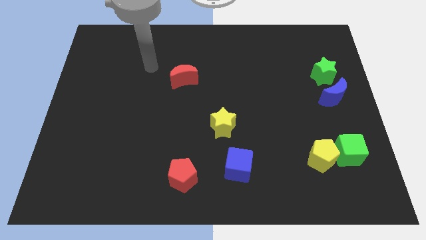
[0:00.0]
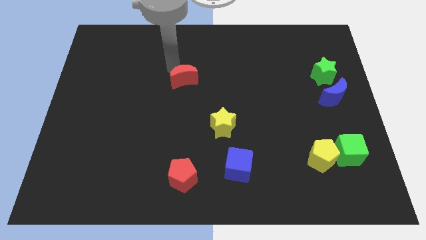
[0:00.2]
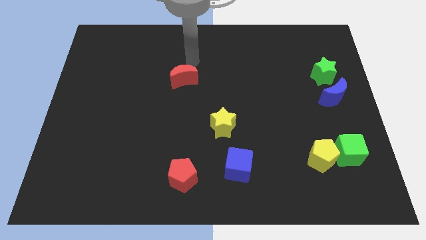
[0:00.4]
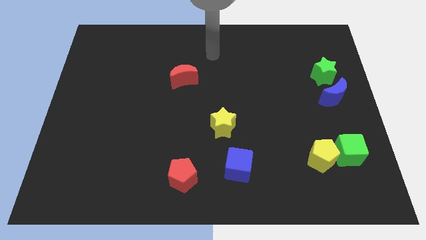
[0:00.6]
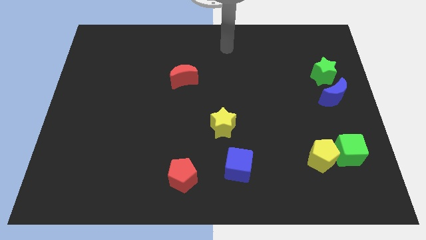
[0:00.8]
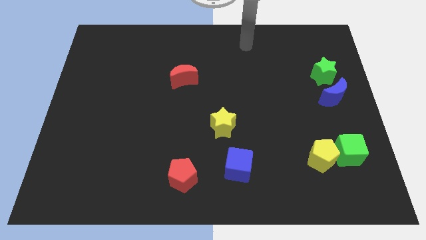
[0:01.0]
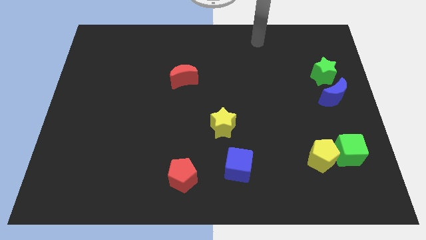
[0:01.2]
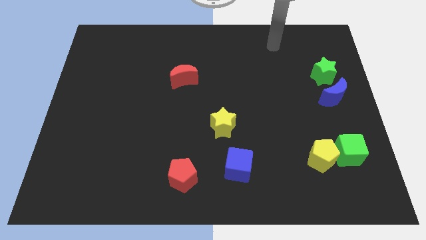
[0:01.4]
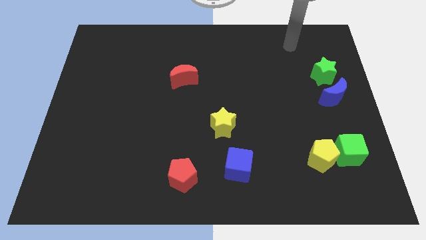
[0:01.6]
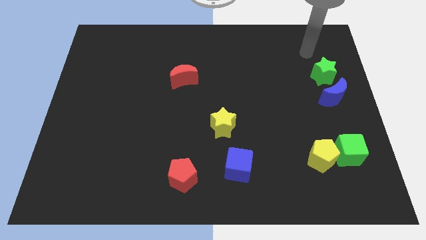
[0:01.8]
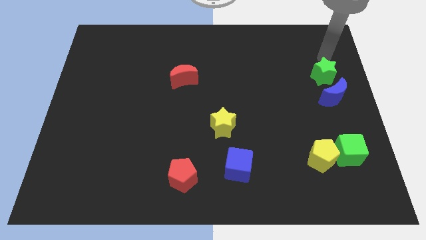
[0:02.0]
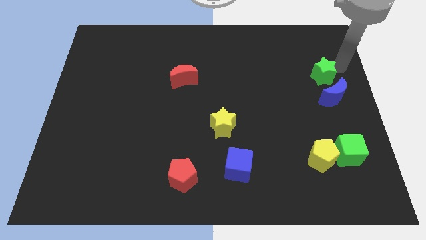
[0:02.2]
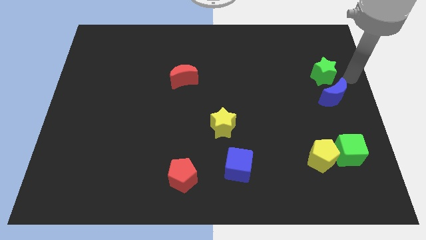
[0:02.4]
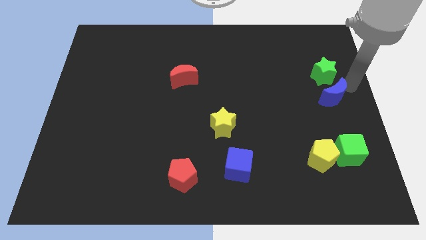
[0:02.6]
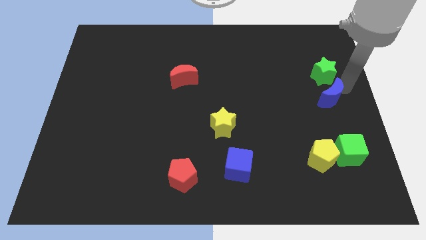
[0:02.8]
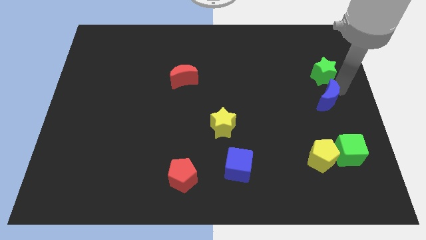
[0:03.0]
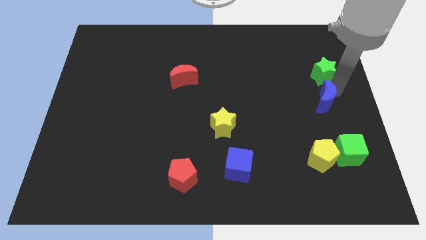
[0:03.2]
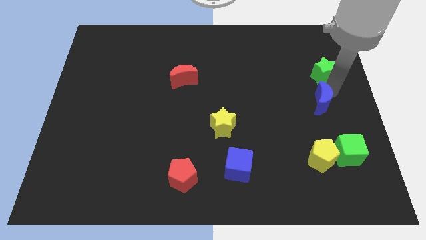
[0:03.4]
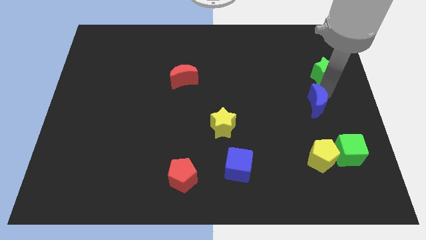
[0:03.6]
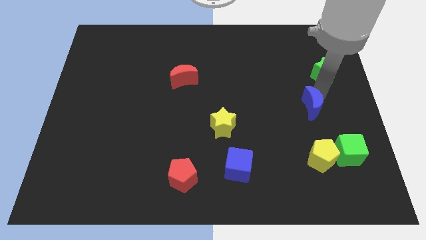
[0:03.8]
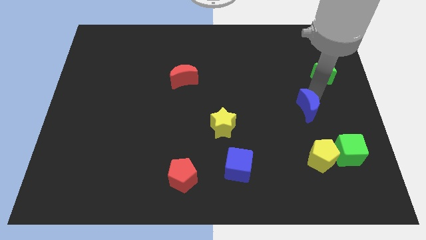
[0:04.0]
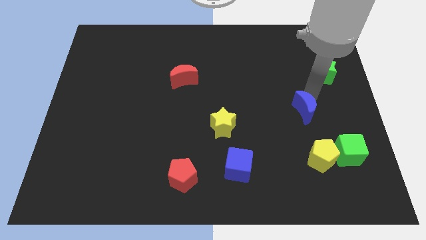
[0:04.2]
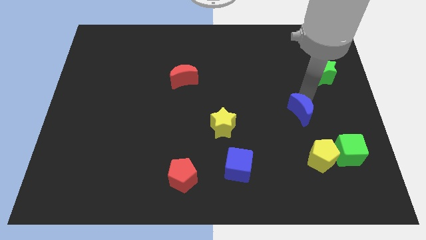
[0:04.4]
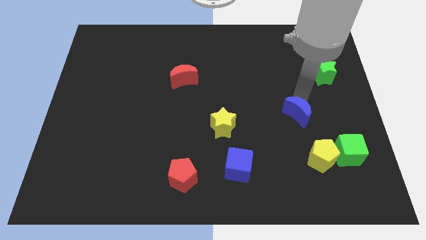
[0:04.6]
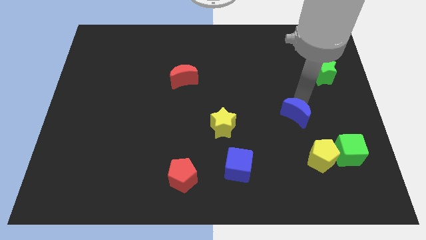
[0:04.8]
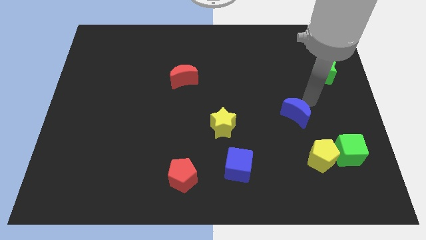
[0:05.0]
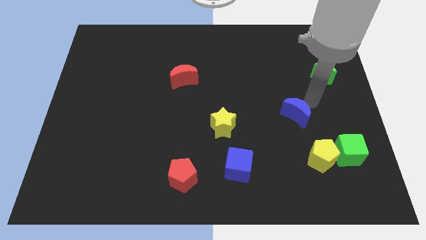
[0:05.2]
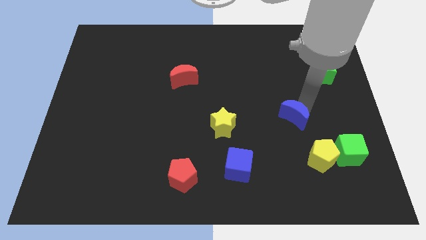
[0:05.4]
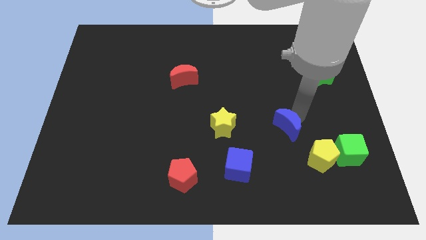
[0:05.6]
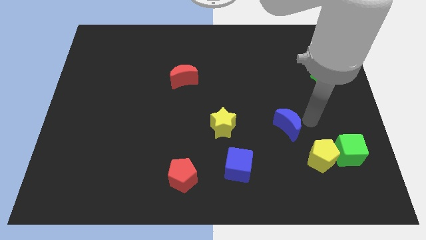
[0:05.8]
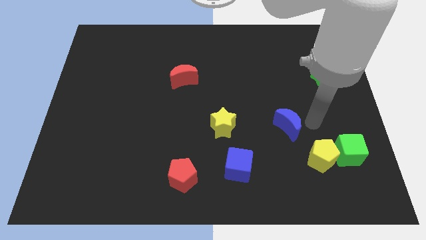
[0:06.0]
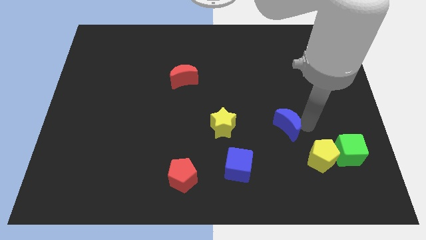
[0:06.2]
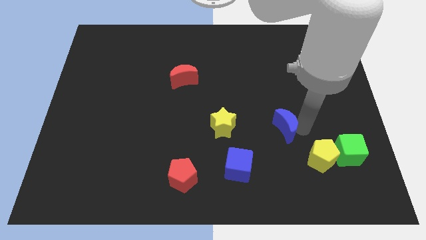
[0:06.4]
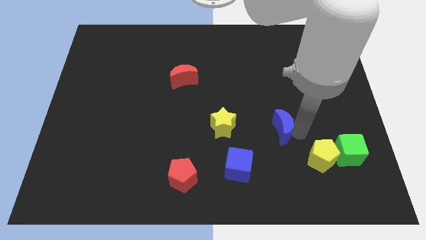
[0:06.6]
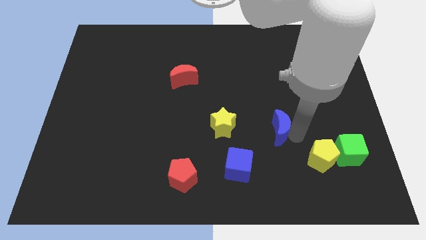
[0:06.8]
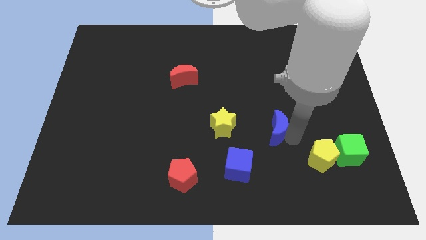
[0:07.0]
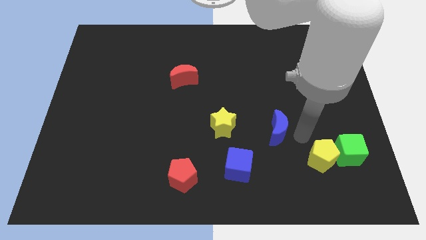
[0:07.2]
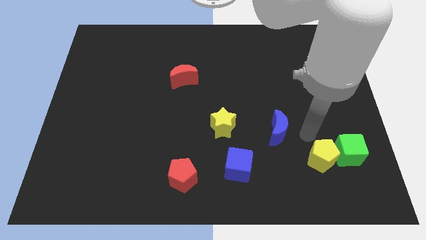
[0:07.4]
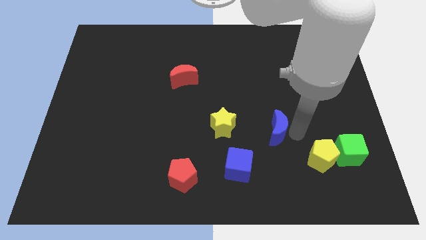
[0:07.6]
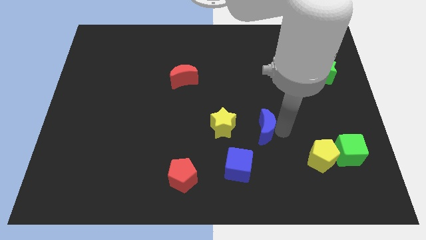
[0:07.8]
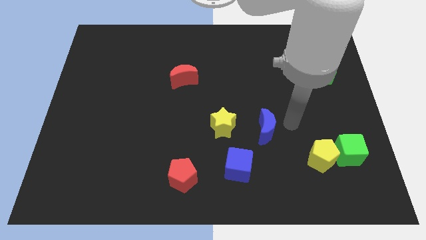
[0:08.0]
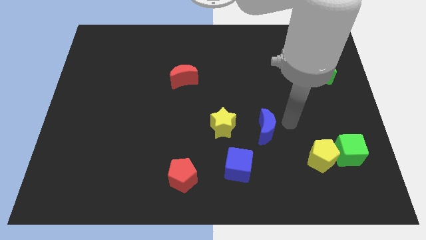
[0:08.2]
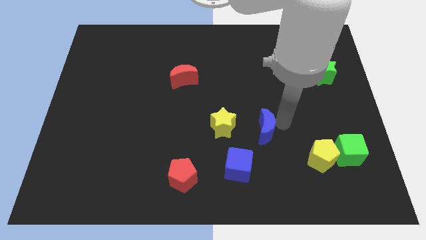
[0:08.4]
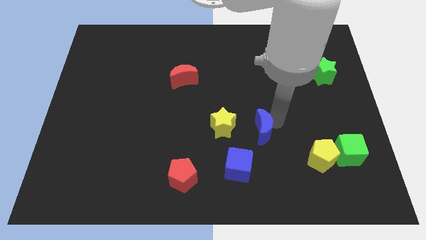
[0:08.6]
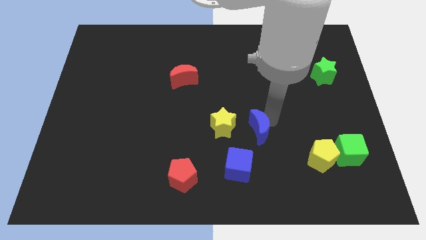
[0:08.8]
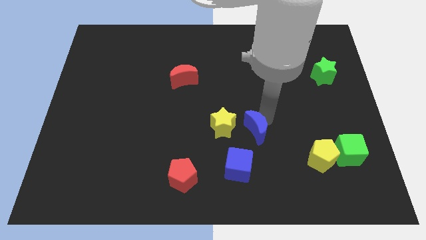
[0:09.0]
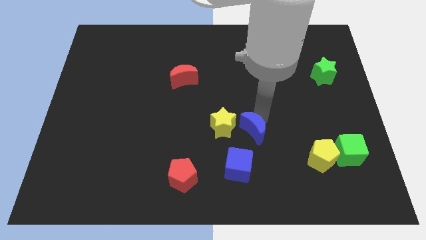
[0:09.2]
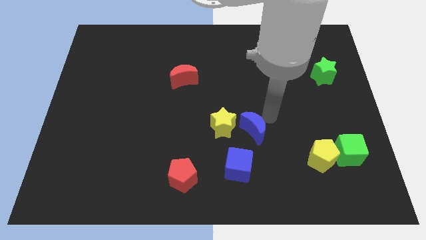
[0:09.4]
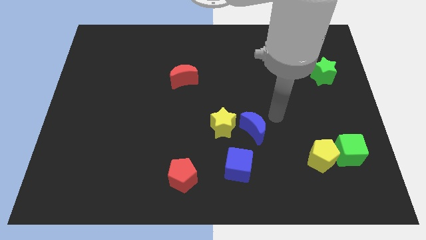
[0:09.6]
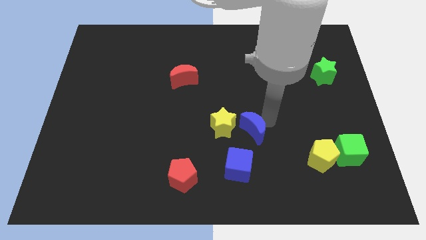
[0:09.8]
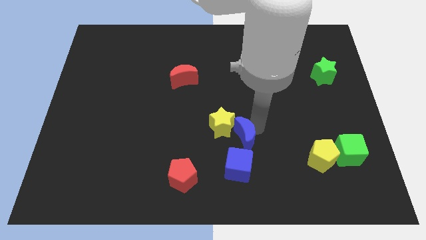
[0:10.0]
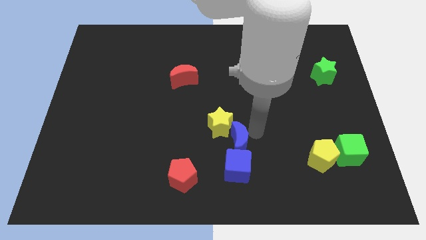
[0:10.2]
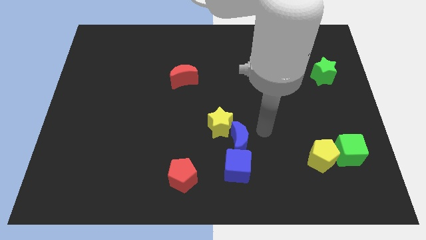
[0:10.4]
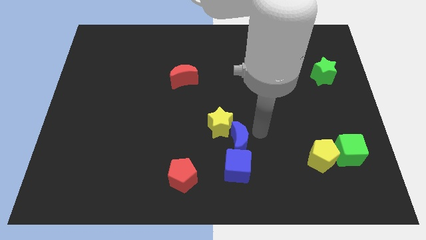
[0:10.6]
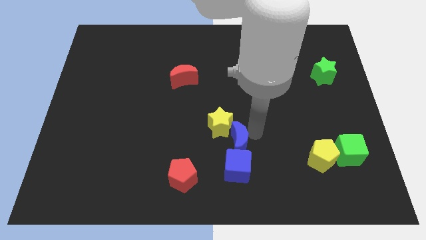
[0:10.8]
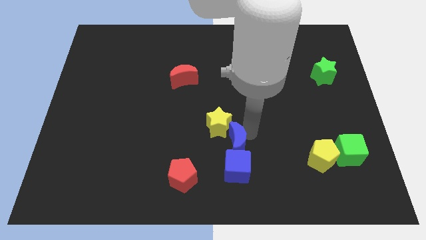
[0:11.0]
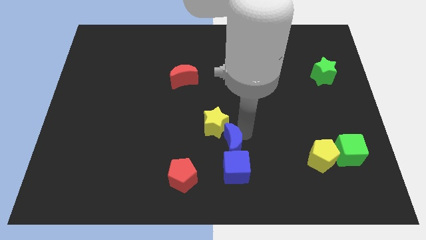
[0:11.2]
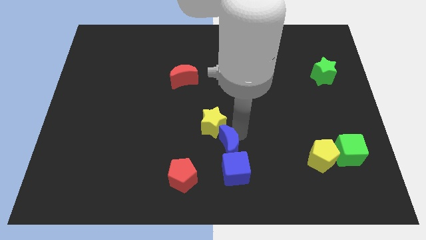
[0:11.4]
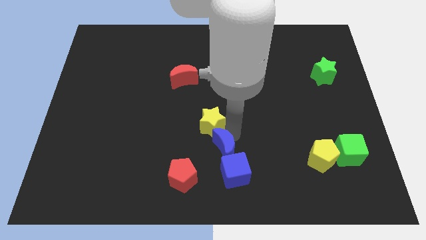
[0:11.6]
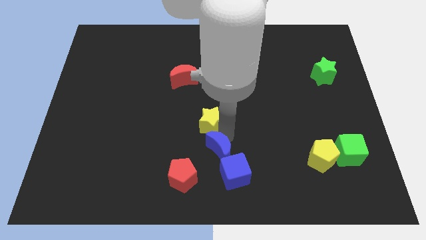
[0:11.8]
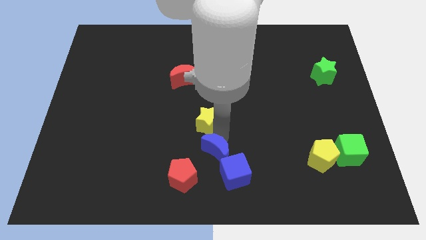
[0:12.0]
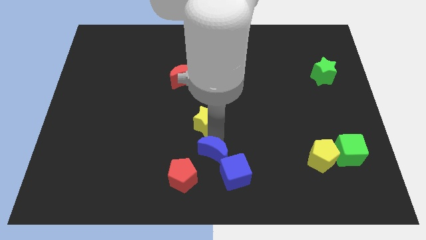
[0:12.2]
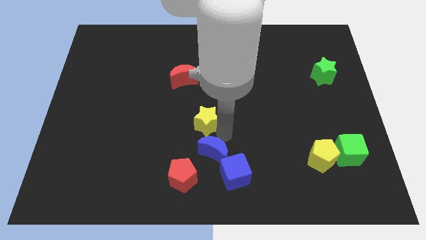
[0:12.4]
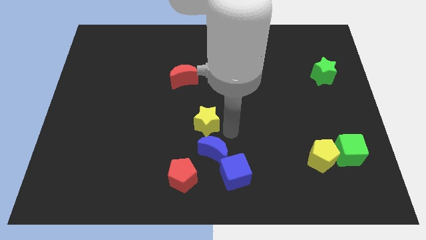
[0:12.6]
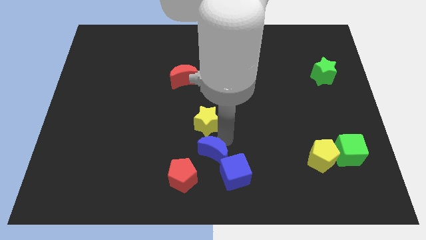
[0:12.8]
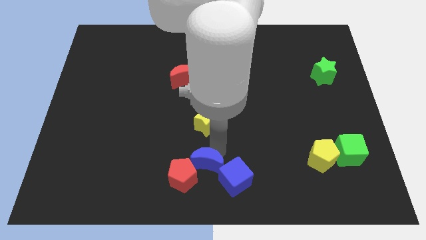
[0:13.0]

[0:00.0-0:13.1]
slide the blue moon close to the red pentagon

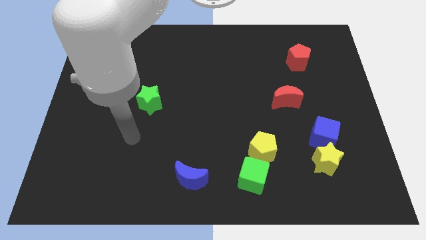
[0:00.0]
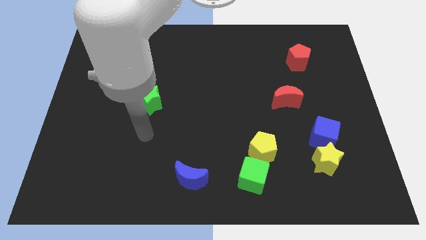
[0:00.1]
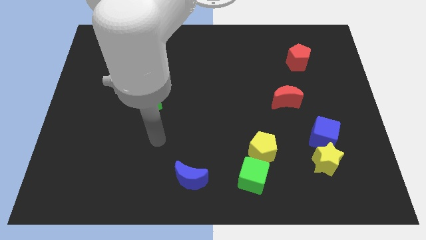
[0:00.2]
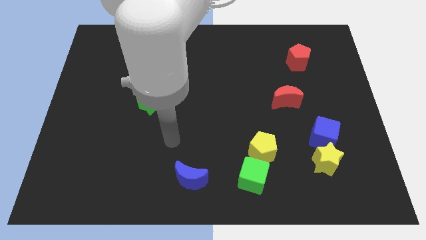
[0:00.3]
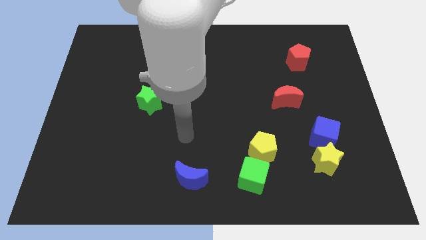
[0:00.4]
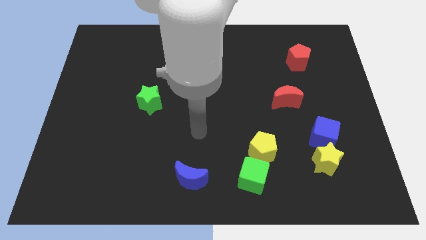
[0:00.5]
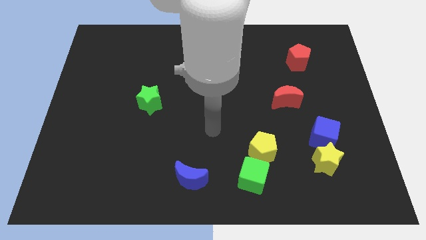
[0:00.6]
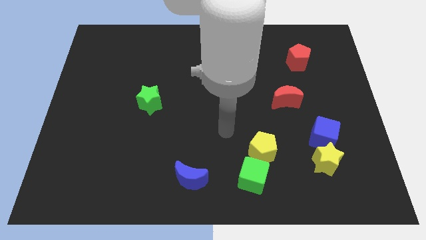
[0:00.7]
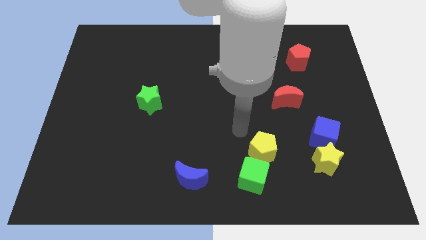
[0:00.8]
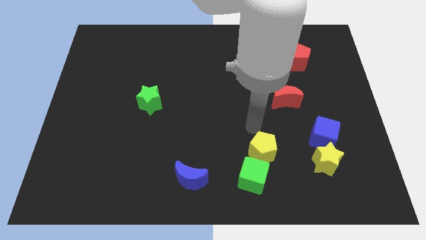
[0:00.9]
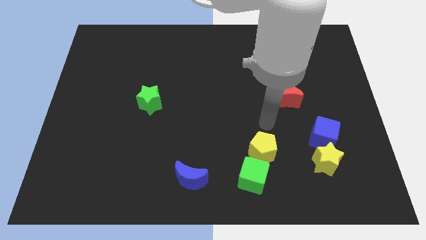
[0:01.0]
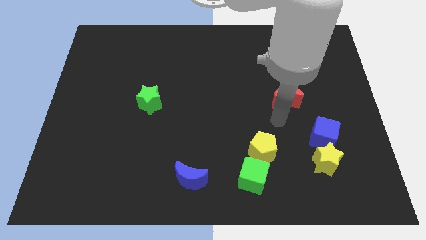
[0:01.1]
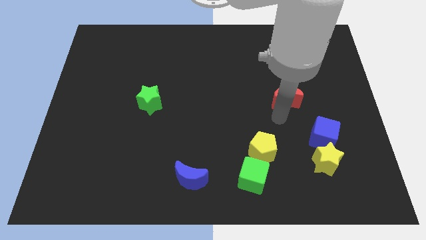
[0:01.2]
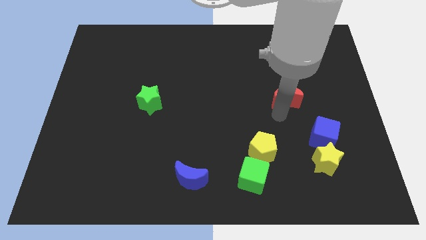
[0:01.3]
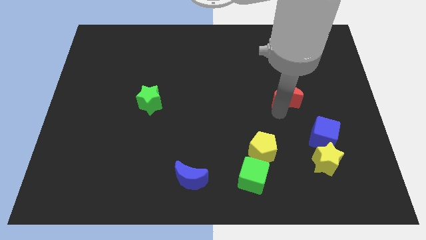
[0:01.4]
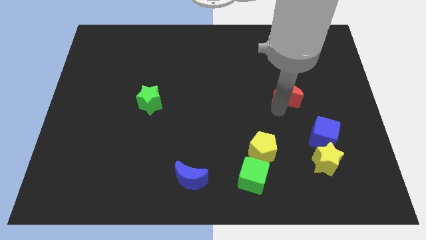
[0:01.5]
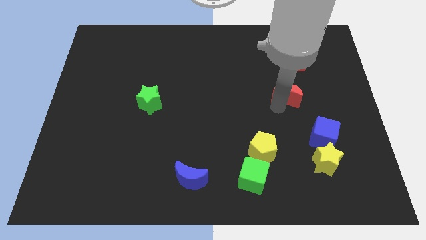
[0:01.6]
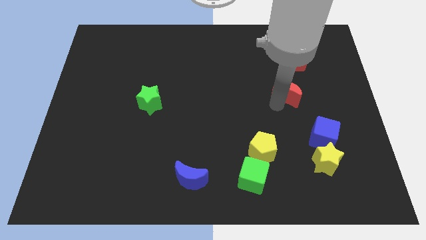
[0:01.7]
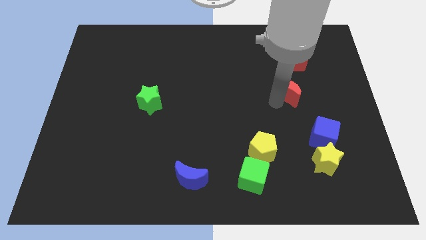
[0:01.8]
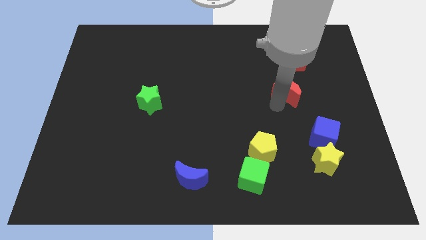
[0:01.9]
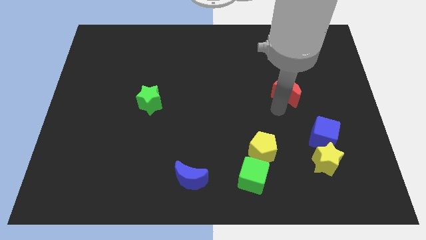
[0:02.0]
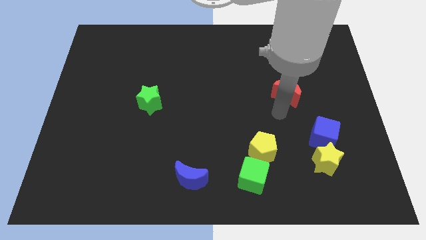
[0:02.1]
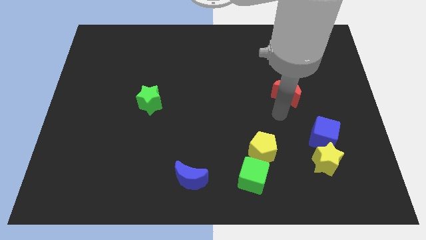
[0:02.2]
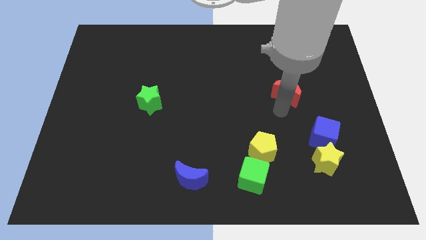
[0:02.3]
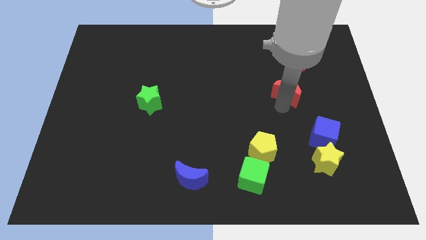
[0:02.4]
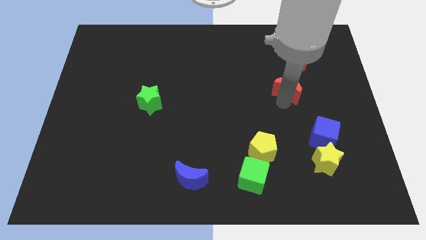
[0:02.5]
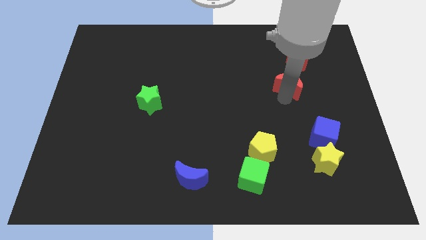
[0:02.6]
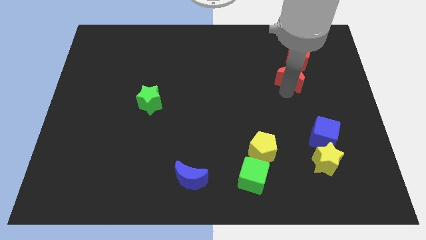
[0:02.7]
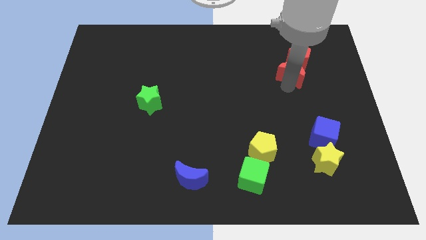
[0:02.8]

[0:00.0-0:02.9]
push the red moon towards the red pentagon
